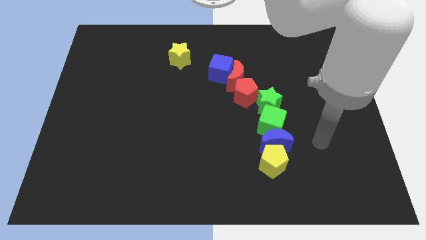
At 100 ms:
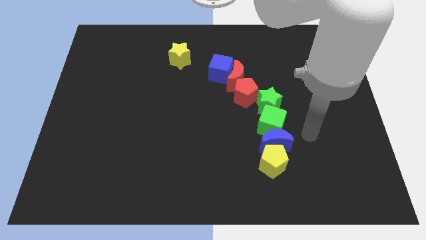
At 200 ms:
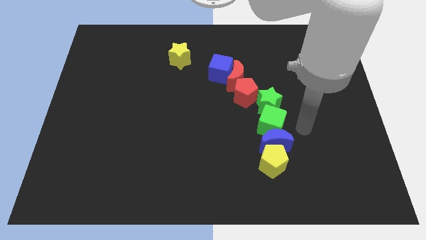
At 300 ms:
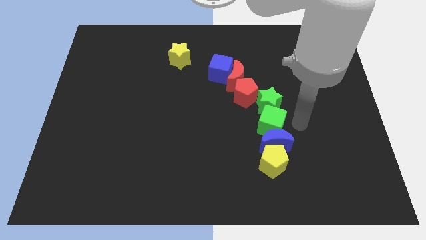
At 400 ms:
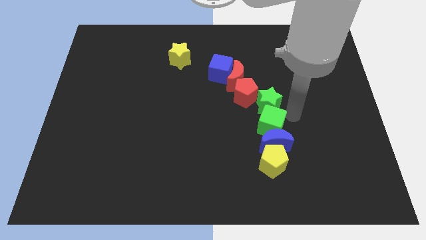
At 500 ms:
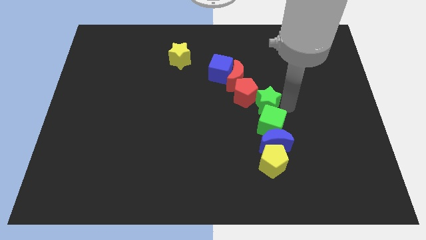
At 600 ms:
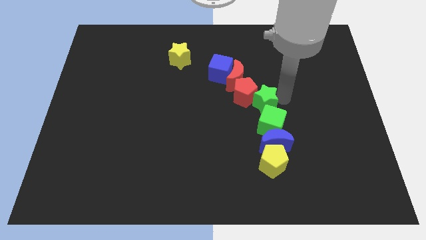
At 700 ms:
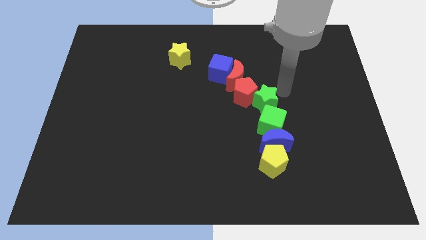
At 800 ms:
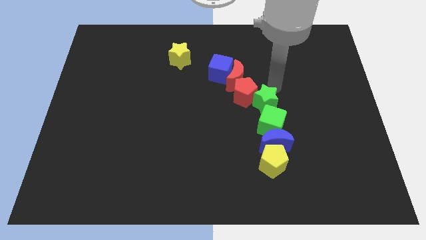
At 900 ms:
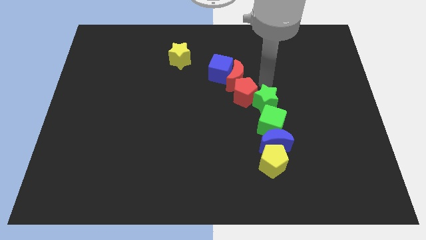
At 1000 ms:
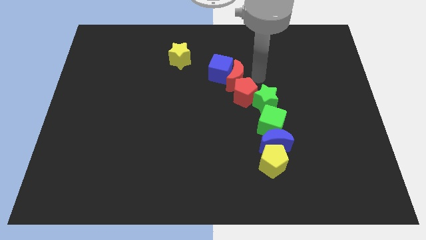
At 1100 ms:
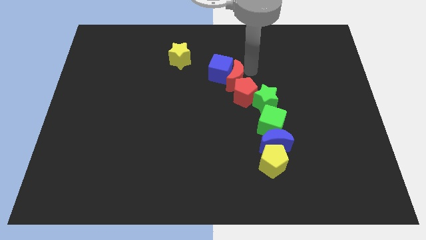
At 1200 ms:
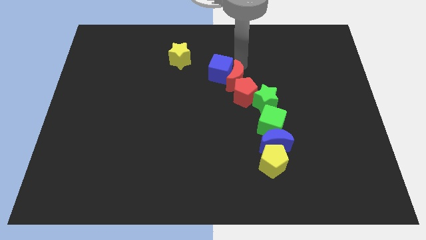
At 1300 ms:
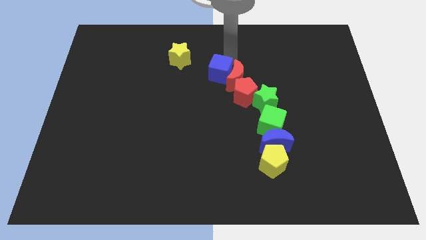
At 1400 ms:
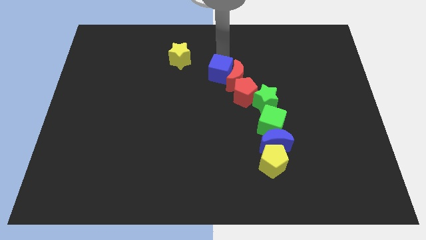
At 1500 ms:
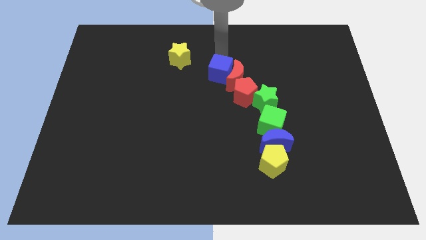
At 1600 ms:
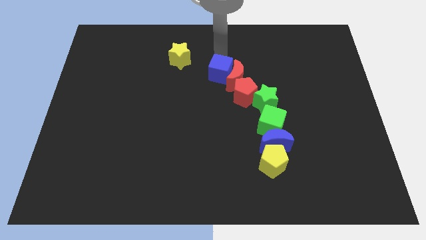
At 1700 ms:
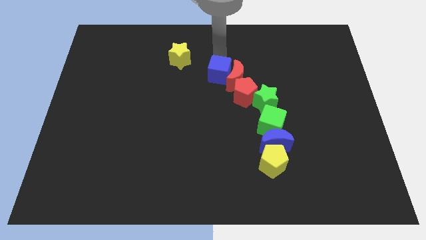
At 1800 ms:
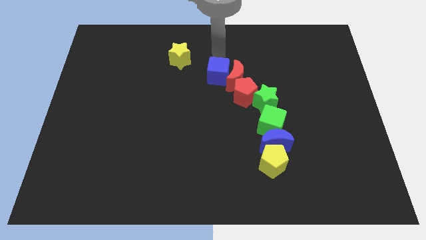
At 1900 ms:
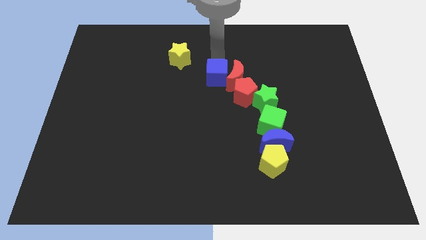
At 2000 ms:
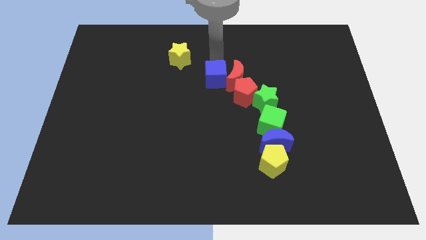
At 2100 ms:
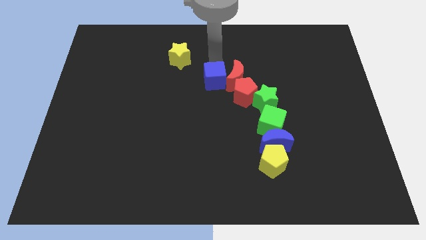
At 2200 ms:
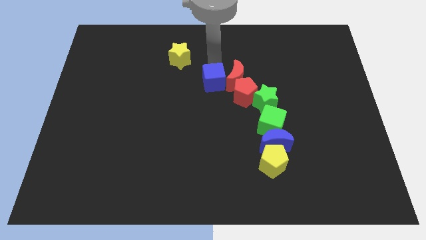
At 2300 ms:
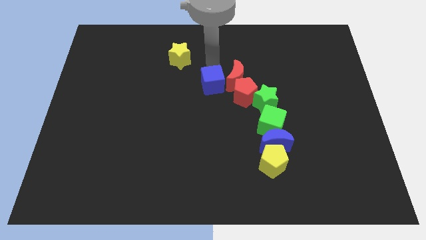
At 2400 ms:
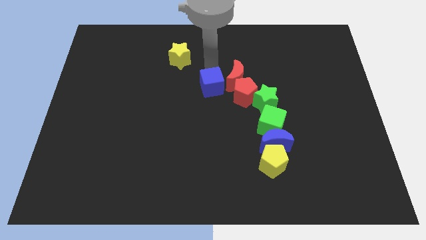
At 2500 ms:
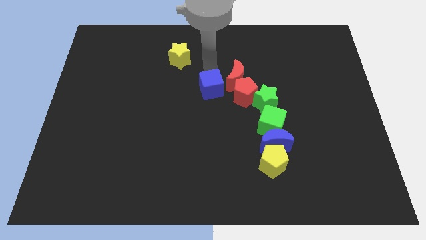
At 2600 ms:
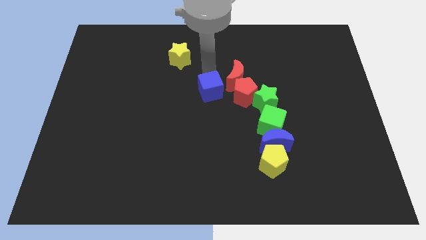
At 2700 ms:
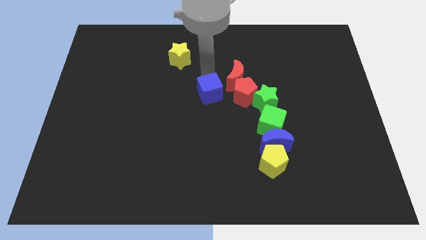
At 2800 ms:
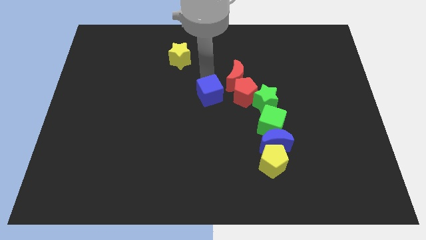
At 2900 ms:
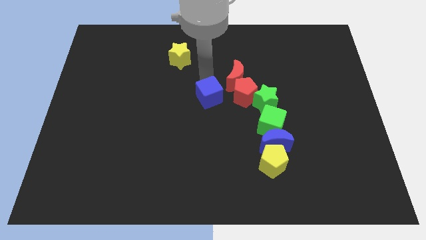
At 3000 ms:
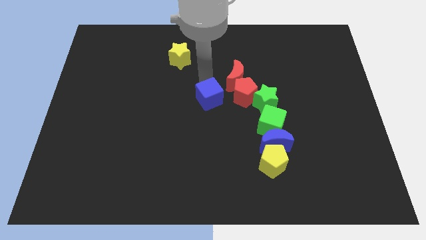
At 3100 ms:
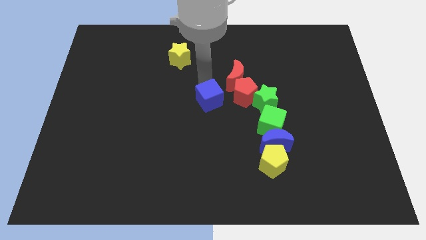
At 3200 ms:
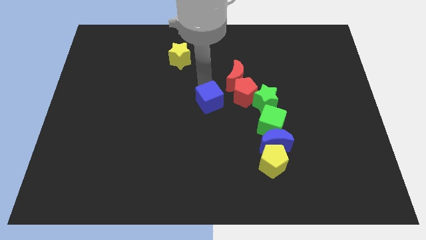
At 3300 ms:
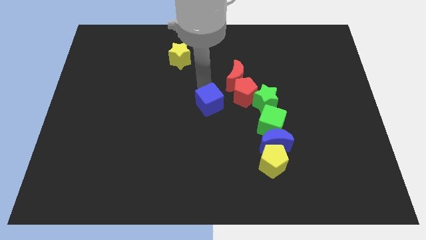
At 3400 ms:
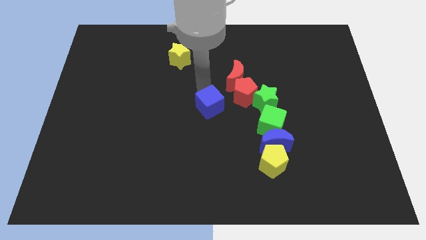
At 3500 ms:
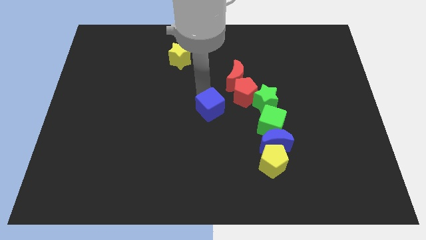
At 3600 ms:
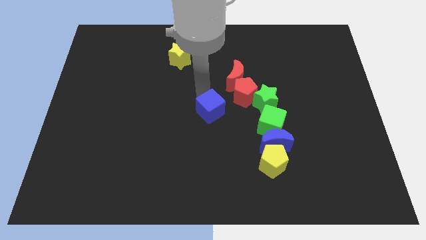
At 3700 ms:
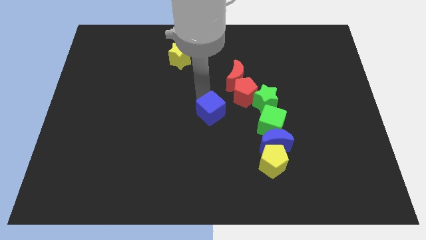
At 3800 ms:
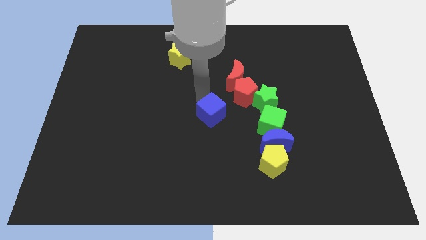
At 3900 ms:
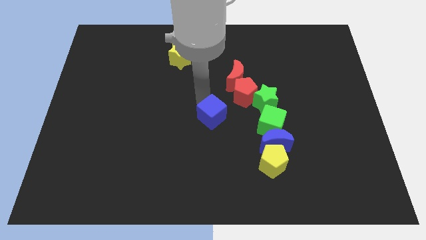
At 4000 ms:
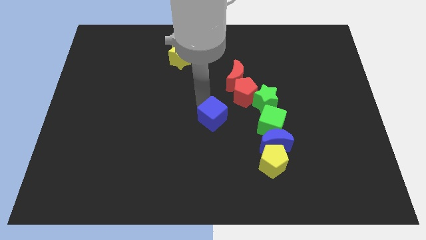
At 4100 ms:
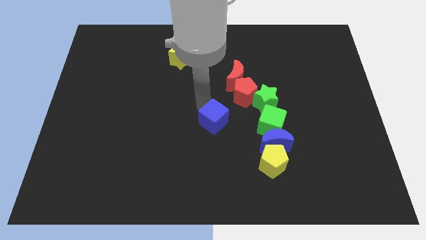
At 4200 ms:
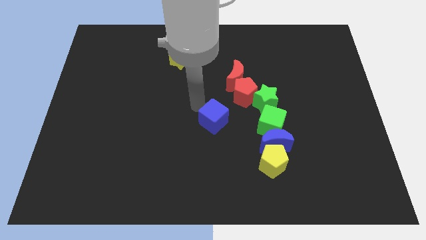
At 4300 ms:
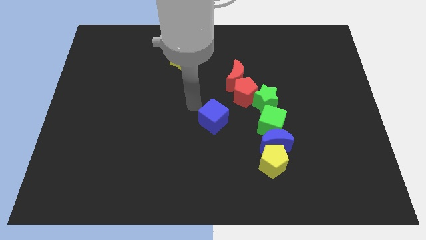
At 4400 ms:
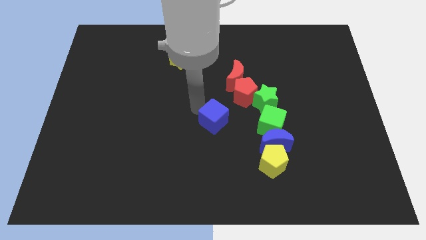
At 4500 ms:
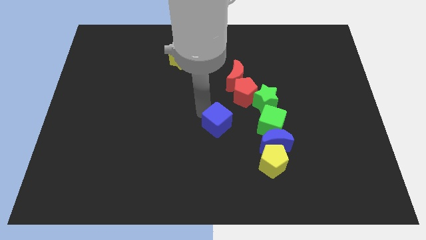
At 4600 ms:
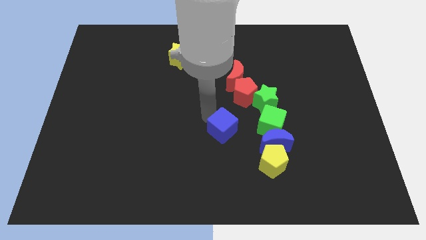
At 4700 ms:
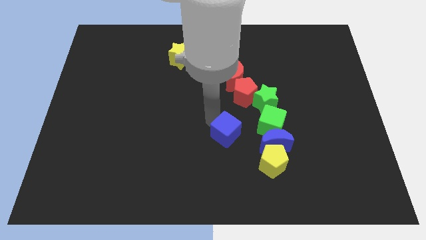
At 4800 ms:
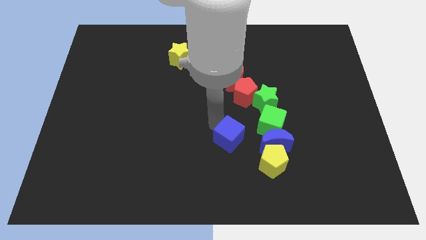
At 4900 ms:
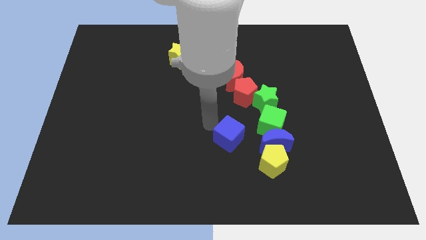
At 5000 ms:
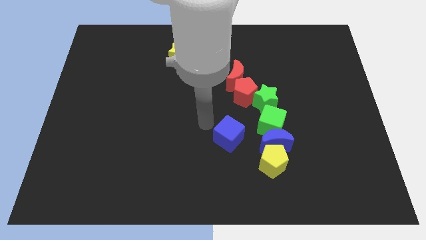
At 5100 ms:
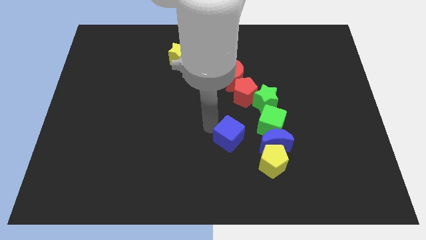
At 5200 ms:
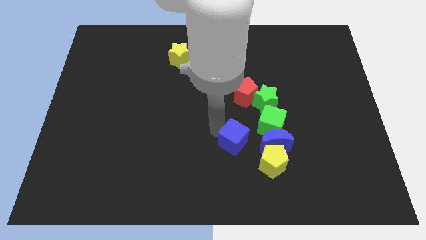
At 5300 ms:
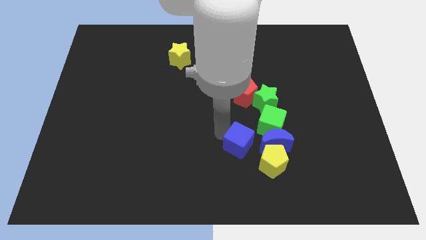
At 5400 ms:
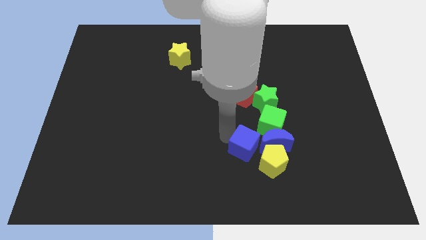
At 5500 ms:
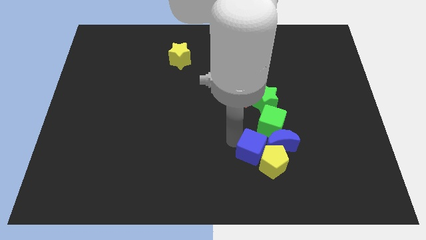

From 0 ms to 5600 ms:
slide the blue cube close to the yellow pentagon

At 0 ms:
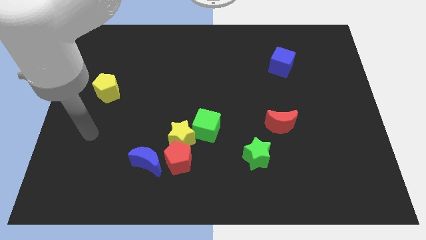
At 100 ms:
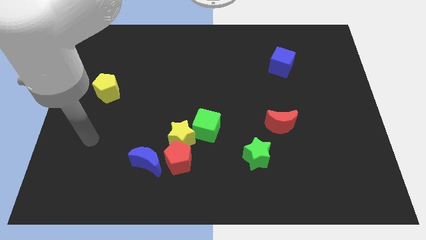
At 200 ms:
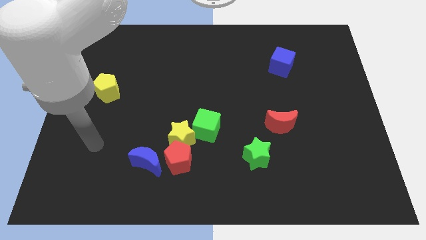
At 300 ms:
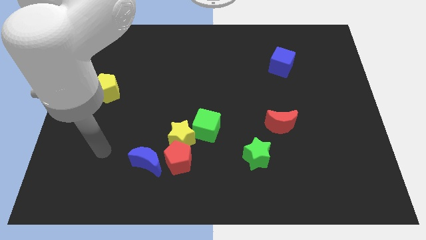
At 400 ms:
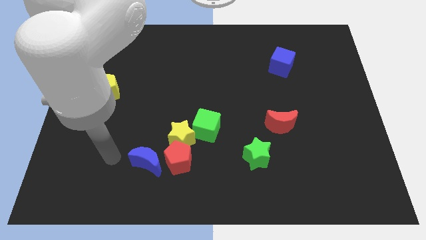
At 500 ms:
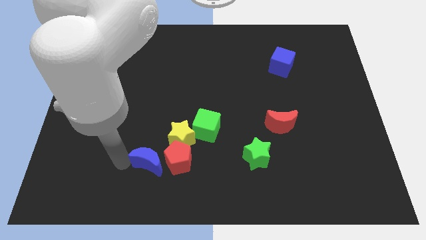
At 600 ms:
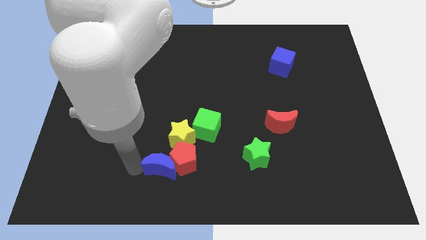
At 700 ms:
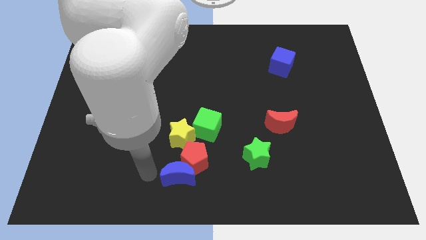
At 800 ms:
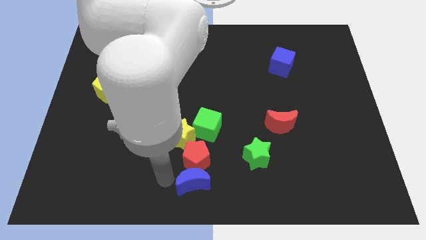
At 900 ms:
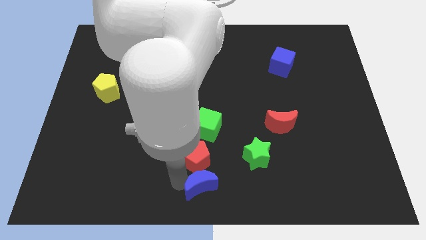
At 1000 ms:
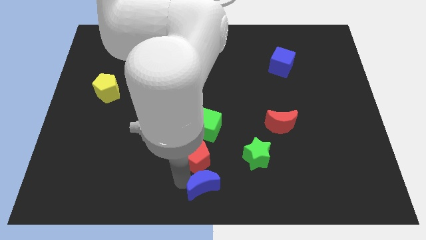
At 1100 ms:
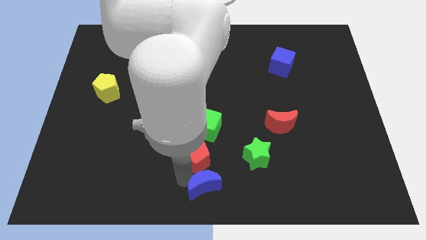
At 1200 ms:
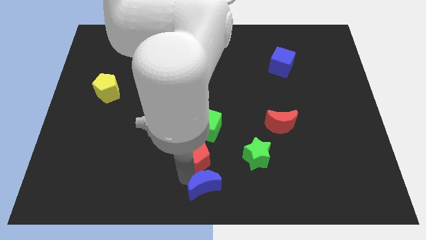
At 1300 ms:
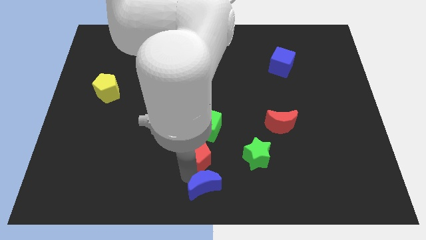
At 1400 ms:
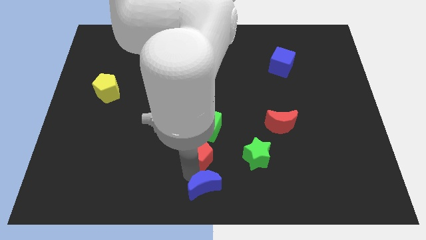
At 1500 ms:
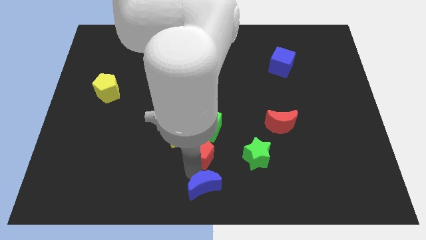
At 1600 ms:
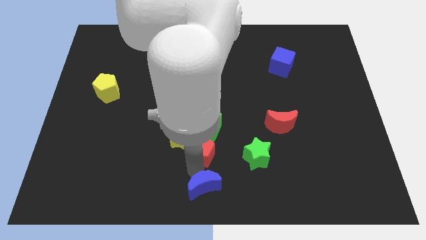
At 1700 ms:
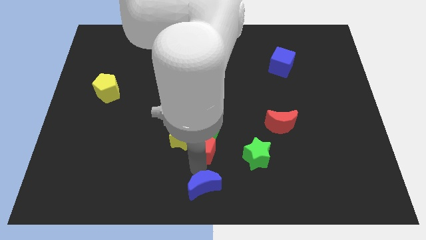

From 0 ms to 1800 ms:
slide the red pentagon to the green cube
